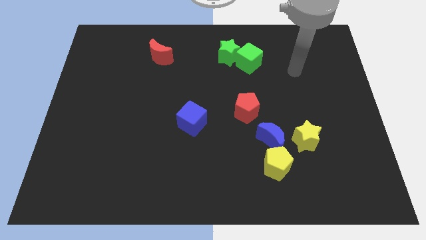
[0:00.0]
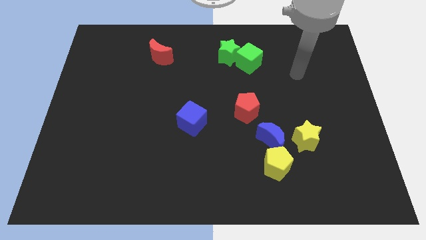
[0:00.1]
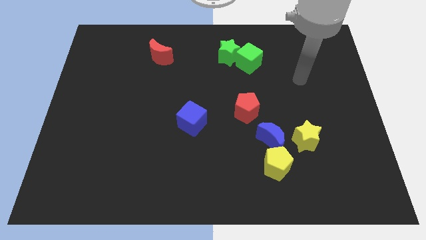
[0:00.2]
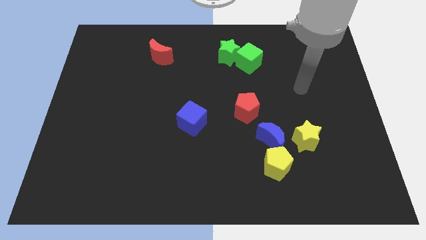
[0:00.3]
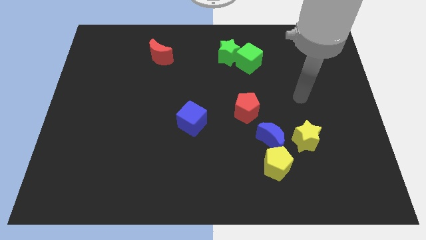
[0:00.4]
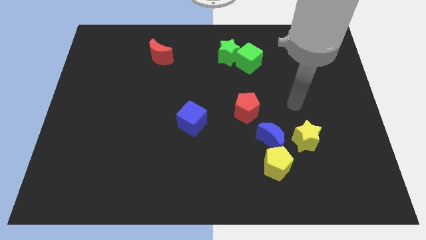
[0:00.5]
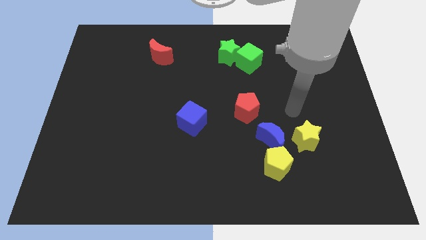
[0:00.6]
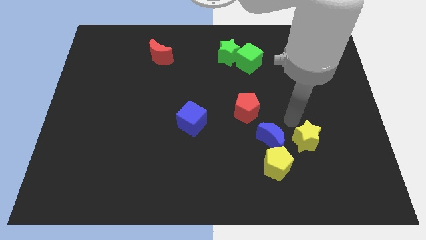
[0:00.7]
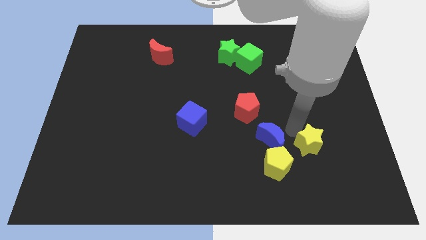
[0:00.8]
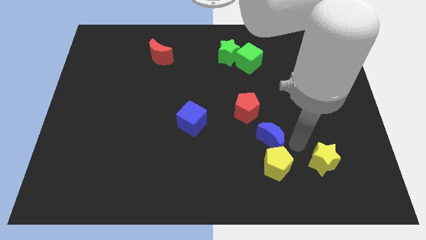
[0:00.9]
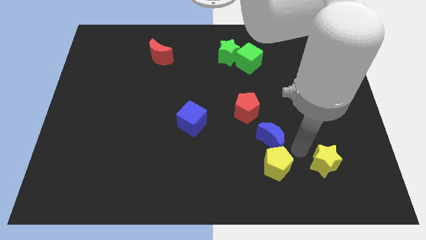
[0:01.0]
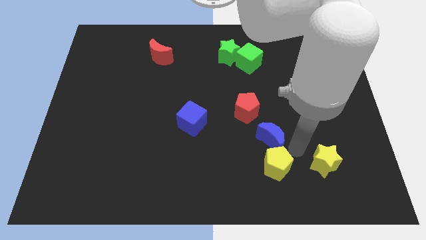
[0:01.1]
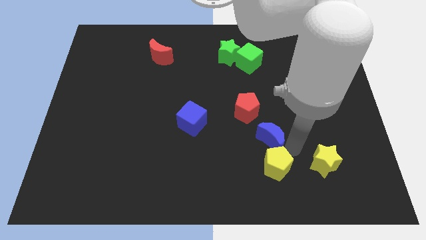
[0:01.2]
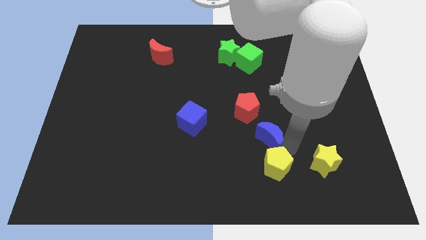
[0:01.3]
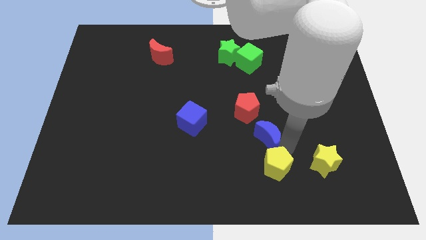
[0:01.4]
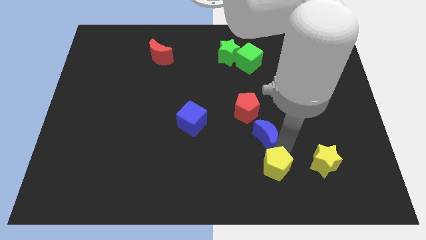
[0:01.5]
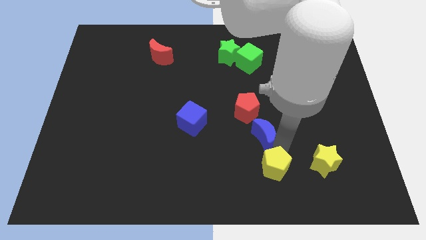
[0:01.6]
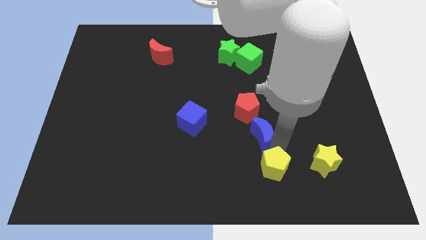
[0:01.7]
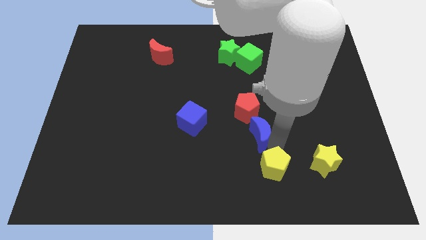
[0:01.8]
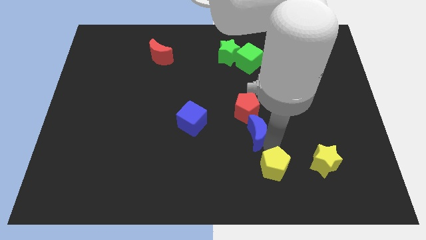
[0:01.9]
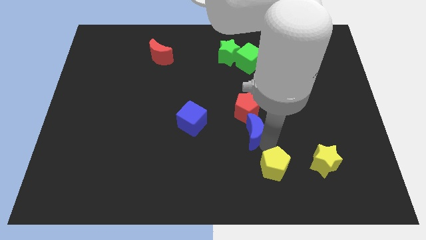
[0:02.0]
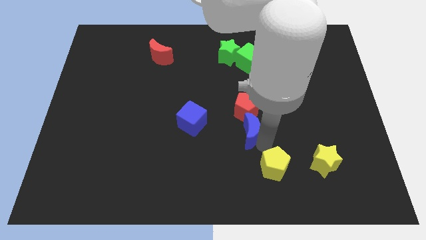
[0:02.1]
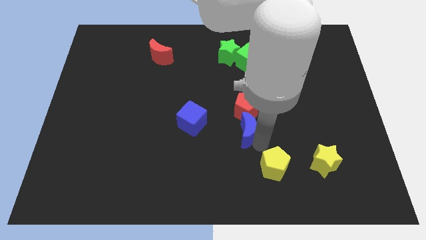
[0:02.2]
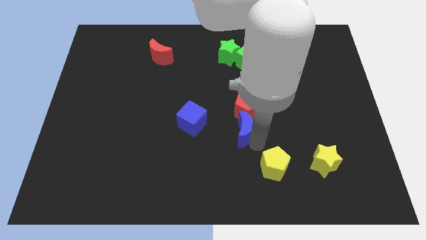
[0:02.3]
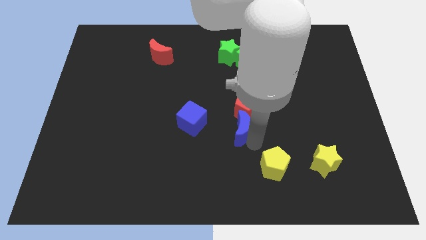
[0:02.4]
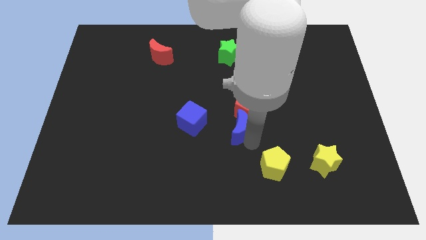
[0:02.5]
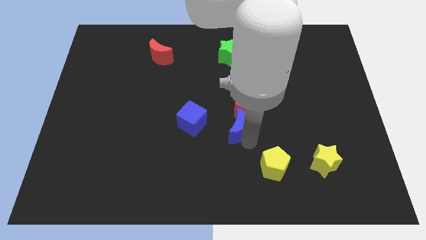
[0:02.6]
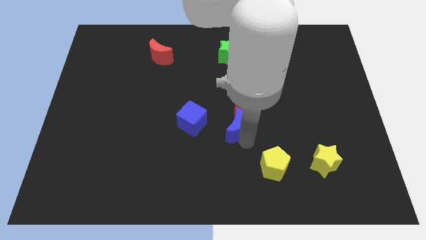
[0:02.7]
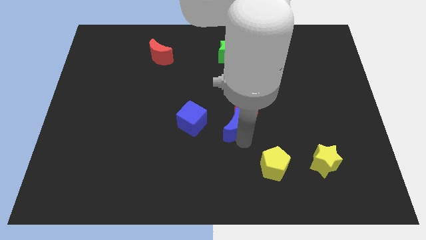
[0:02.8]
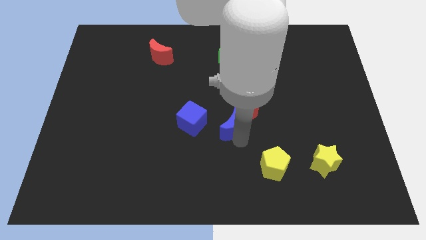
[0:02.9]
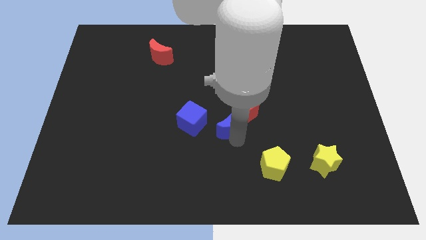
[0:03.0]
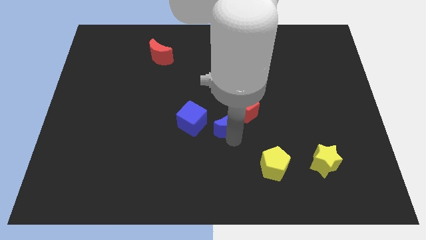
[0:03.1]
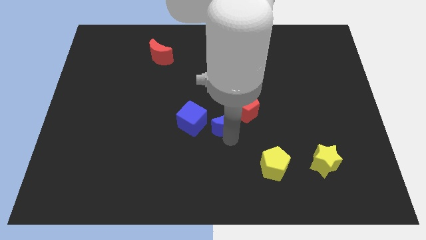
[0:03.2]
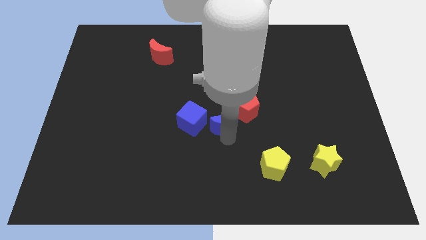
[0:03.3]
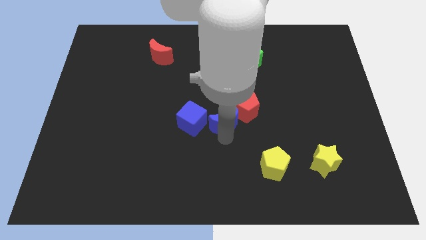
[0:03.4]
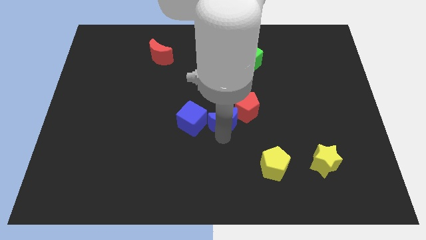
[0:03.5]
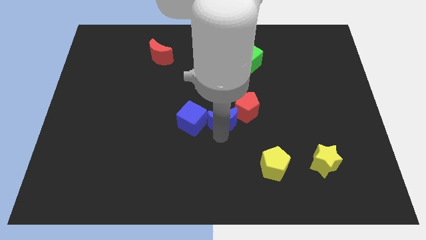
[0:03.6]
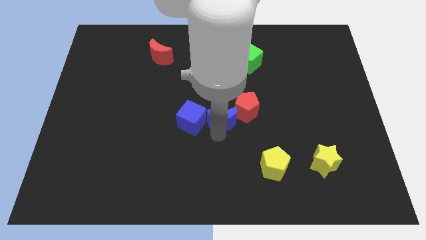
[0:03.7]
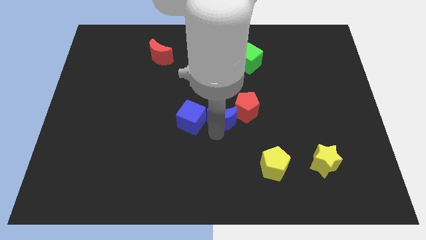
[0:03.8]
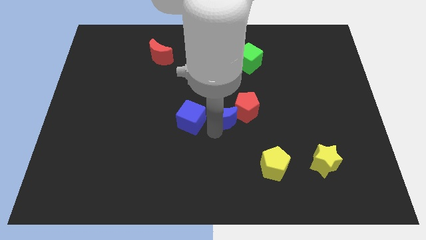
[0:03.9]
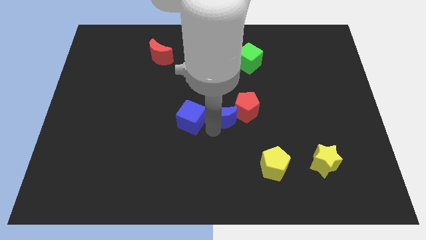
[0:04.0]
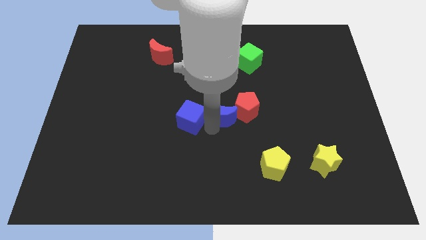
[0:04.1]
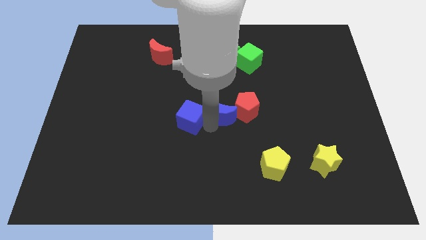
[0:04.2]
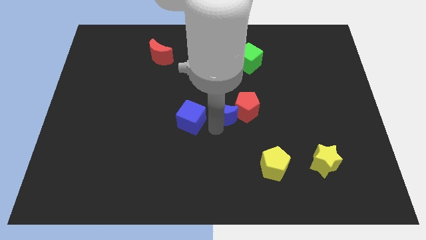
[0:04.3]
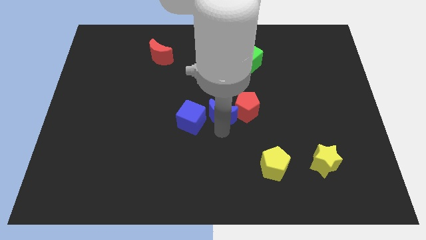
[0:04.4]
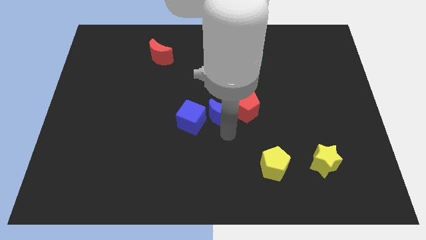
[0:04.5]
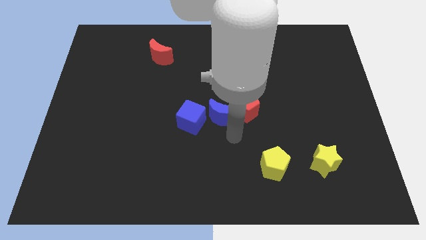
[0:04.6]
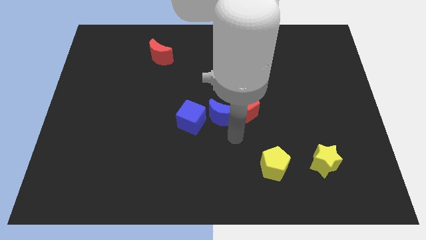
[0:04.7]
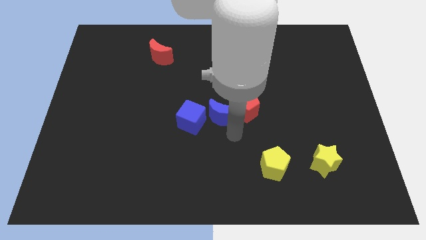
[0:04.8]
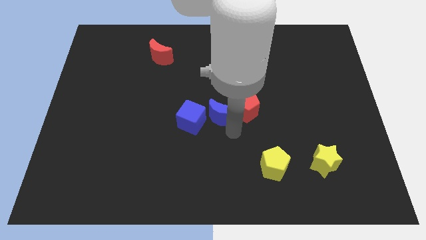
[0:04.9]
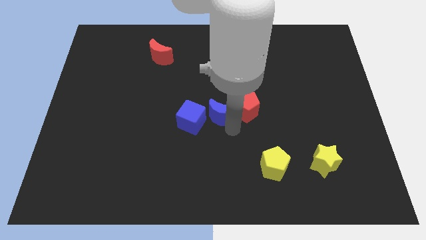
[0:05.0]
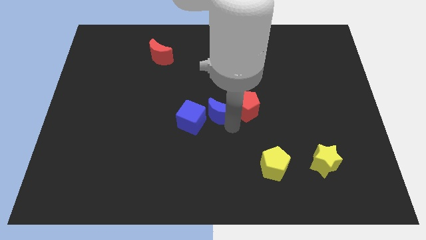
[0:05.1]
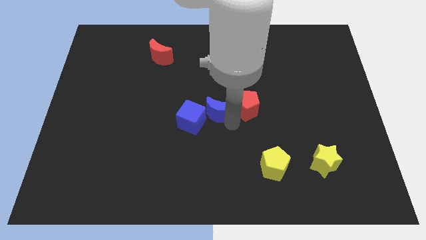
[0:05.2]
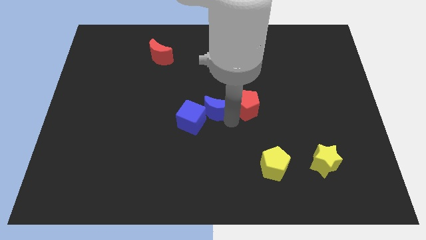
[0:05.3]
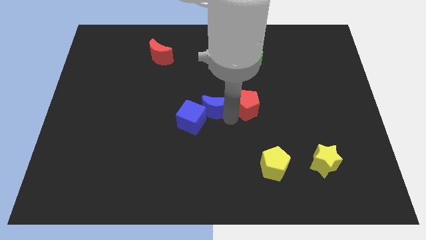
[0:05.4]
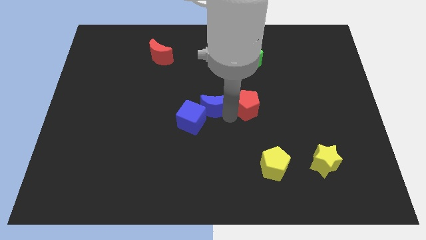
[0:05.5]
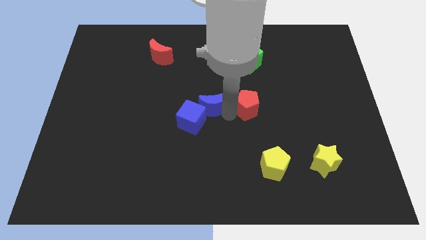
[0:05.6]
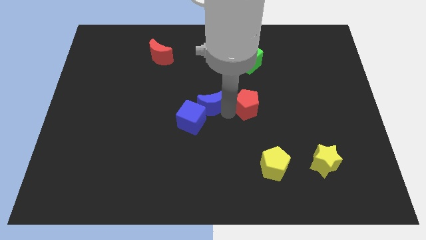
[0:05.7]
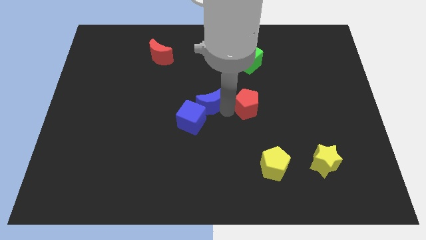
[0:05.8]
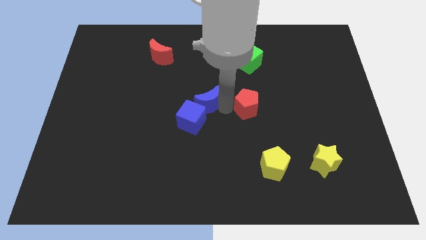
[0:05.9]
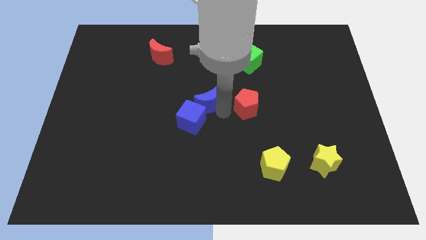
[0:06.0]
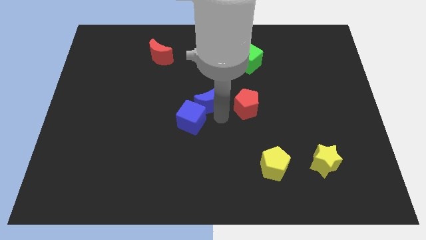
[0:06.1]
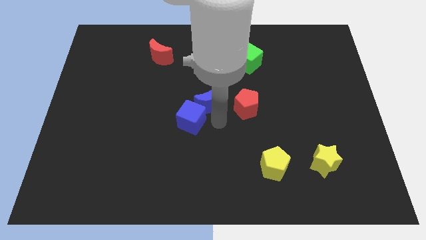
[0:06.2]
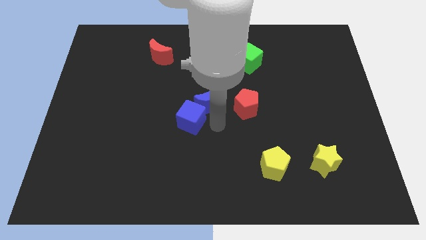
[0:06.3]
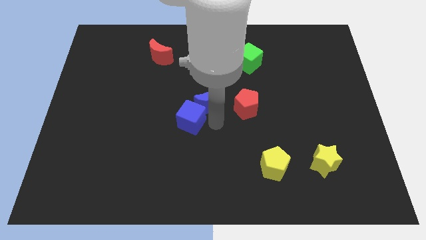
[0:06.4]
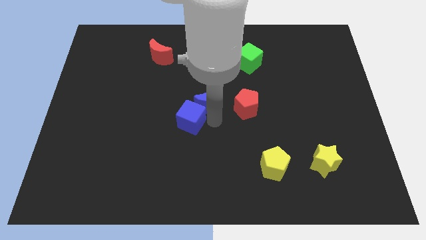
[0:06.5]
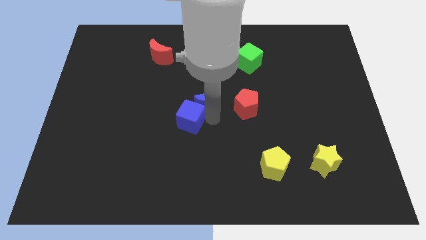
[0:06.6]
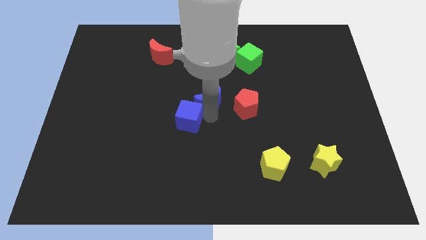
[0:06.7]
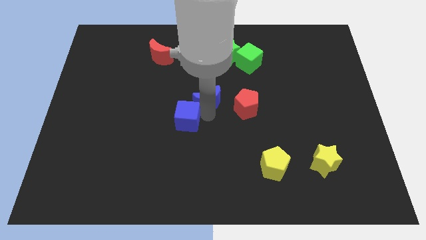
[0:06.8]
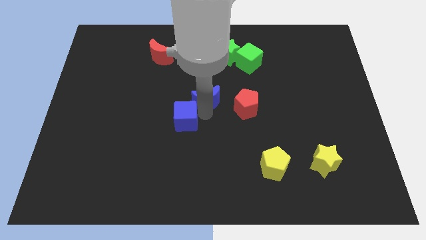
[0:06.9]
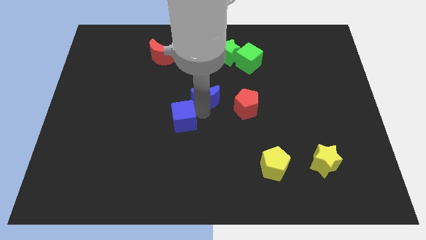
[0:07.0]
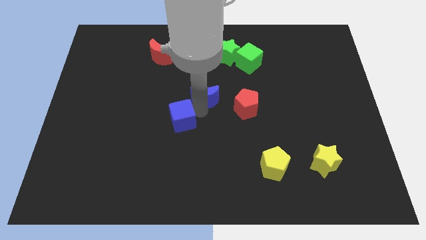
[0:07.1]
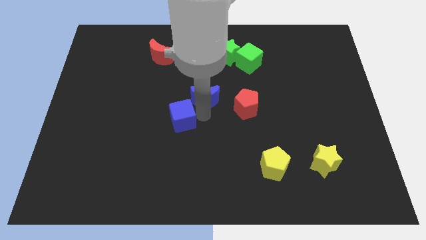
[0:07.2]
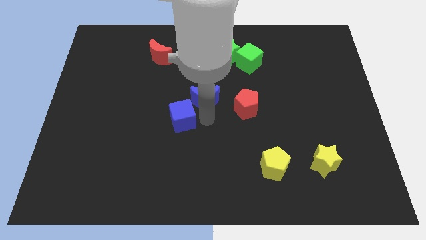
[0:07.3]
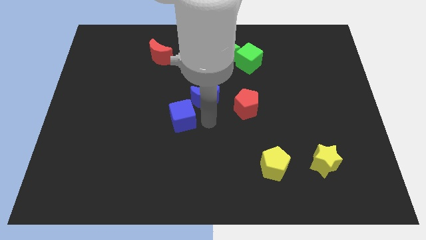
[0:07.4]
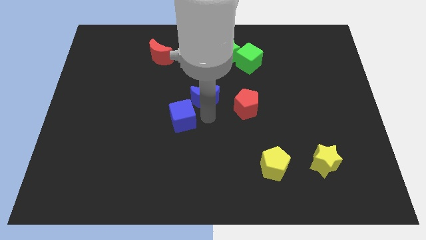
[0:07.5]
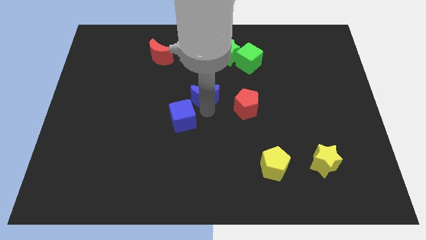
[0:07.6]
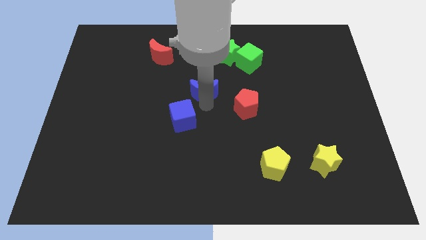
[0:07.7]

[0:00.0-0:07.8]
move the blue moon upwards and to the left diagonally

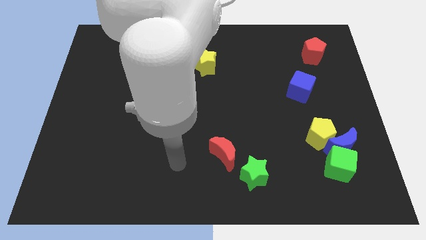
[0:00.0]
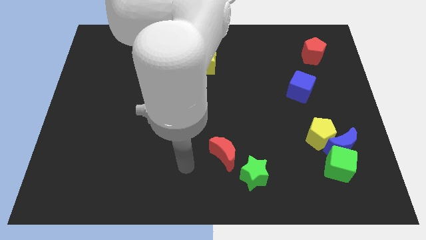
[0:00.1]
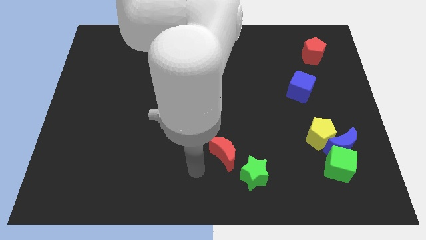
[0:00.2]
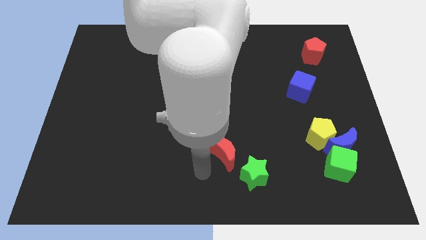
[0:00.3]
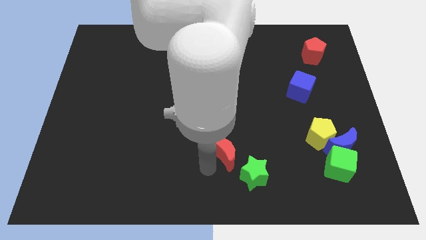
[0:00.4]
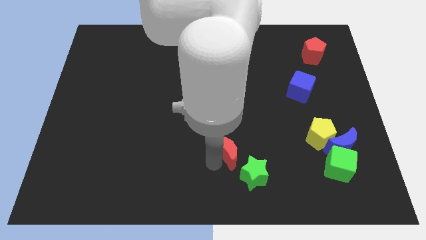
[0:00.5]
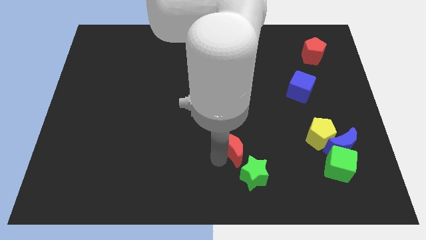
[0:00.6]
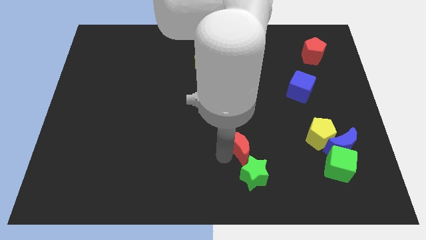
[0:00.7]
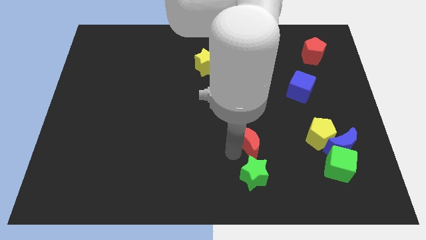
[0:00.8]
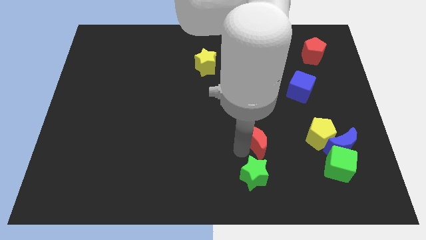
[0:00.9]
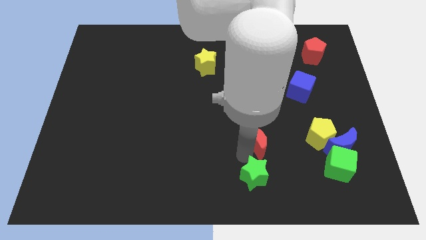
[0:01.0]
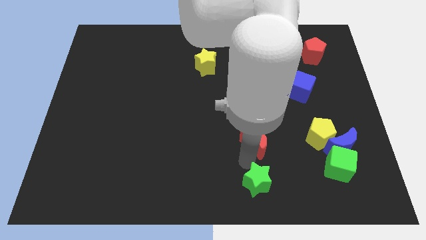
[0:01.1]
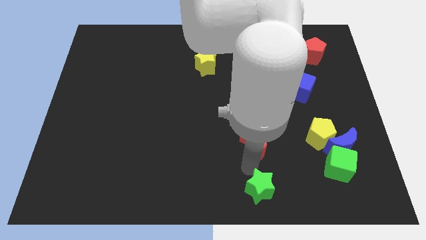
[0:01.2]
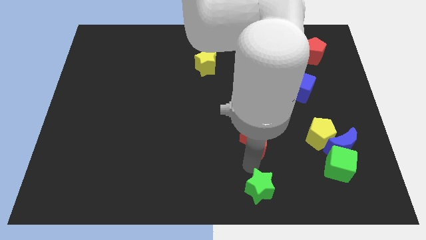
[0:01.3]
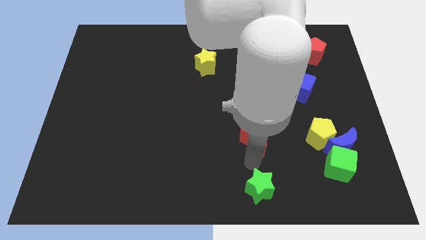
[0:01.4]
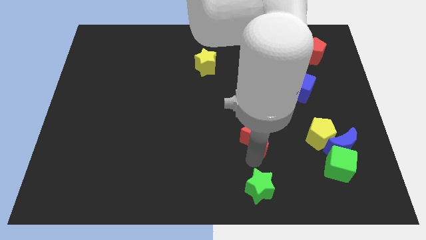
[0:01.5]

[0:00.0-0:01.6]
slightly slide the red moon upwards and to the right
